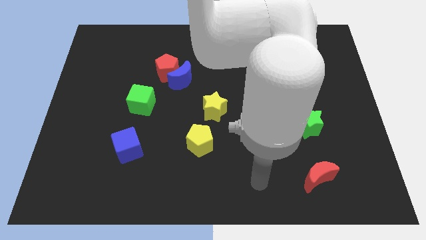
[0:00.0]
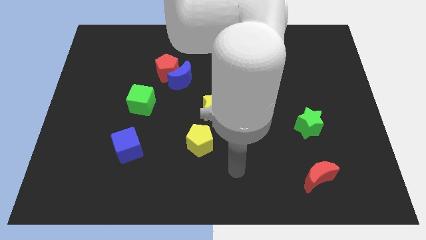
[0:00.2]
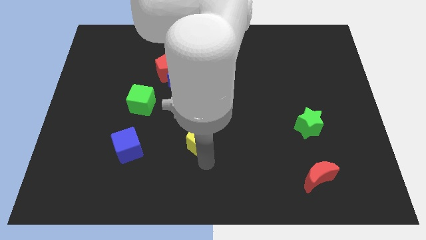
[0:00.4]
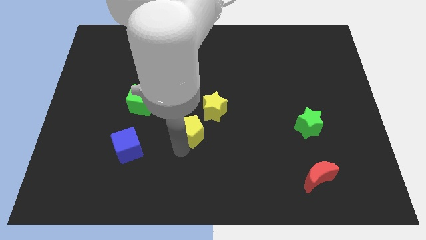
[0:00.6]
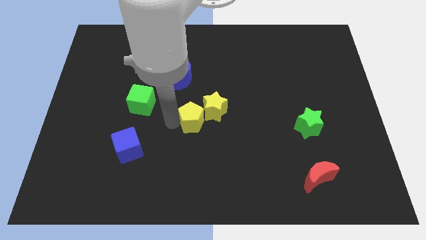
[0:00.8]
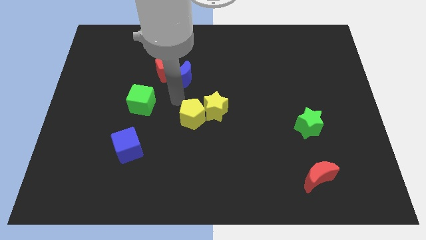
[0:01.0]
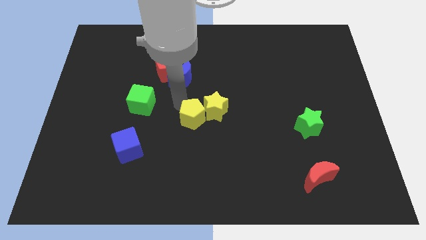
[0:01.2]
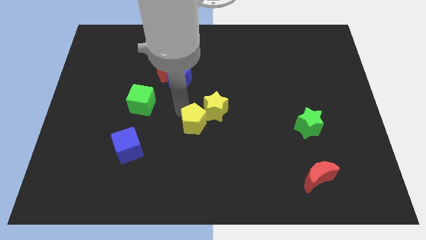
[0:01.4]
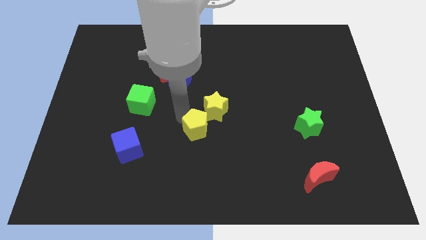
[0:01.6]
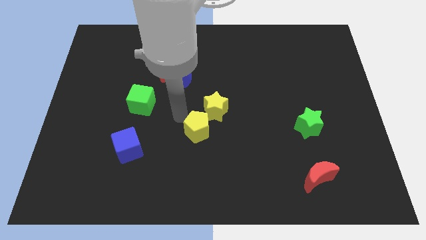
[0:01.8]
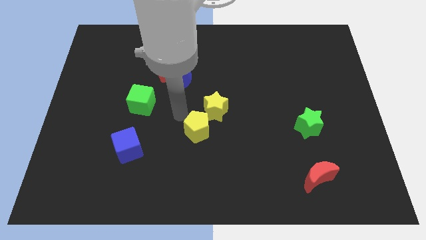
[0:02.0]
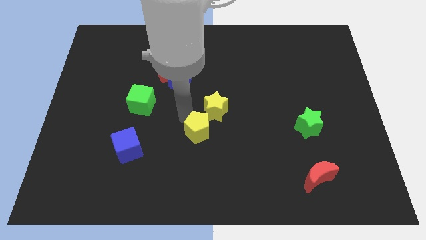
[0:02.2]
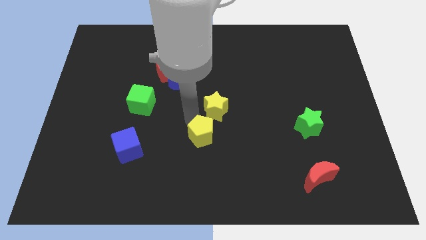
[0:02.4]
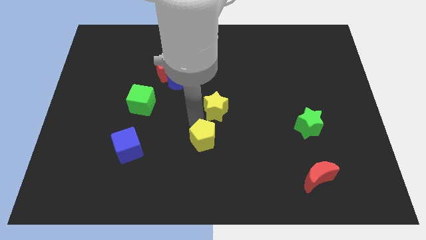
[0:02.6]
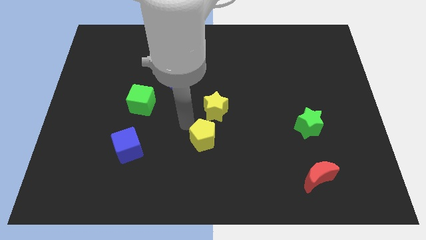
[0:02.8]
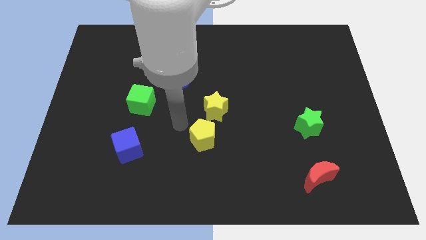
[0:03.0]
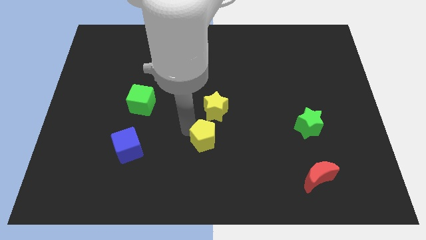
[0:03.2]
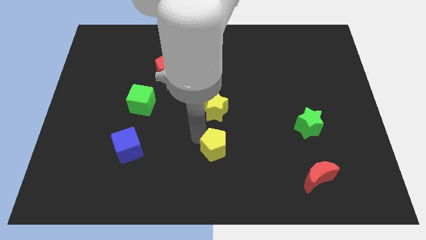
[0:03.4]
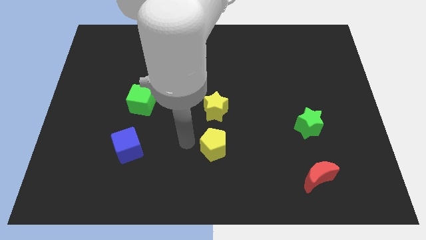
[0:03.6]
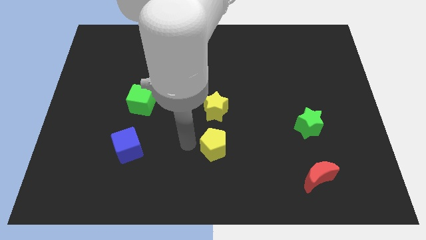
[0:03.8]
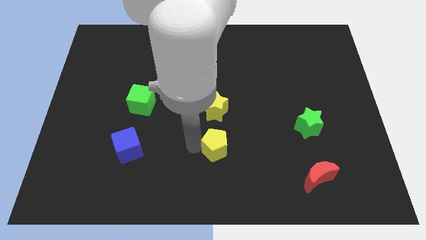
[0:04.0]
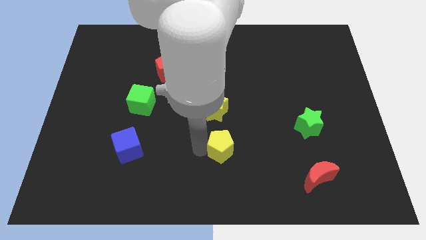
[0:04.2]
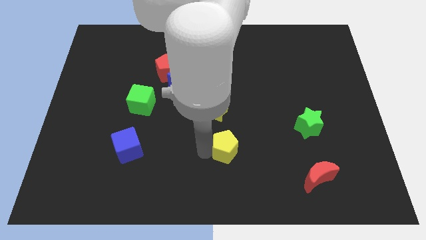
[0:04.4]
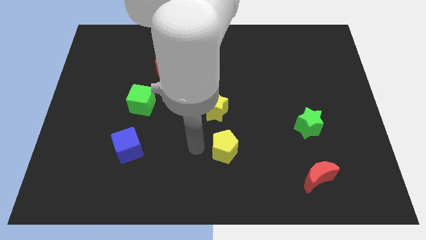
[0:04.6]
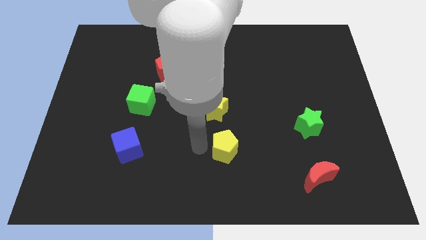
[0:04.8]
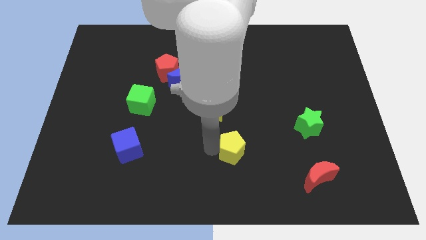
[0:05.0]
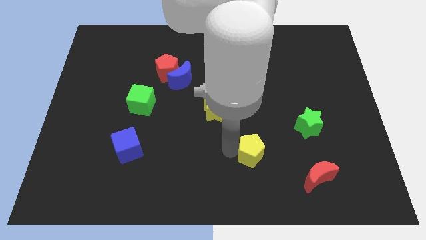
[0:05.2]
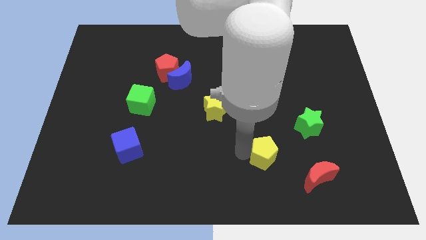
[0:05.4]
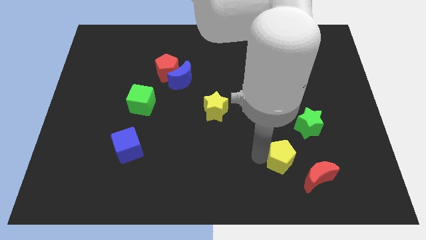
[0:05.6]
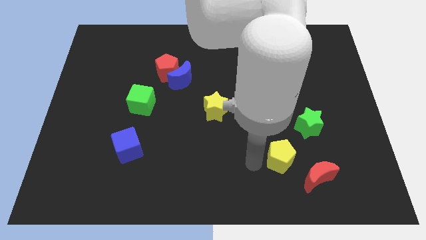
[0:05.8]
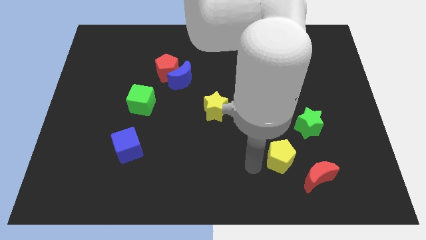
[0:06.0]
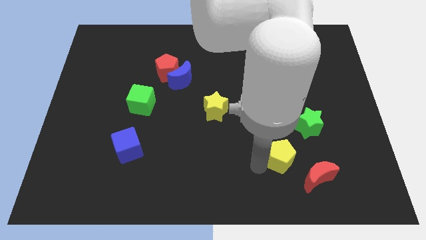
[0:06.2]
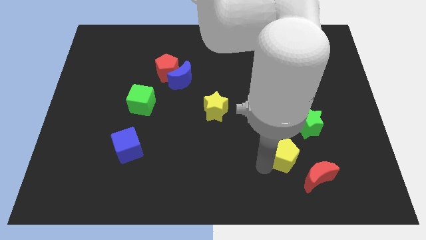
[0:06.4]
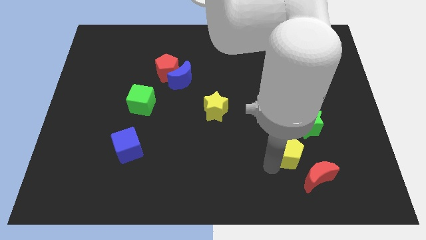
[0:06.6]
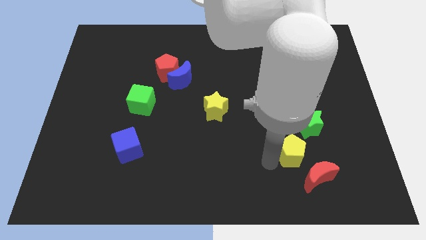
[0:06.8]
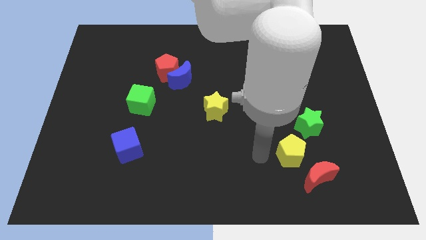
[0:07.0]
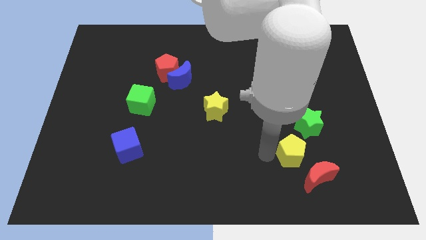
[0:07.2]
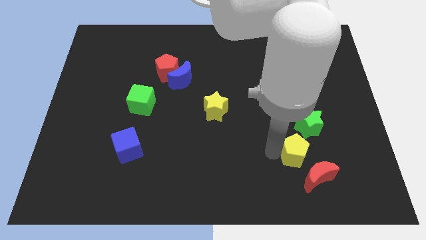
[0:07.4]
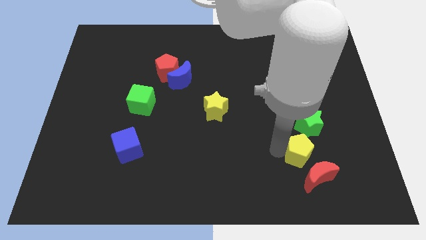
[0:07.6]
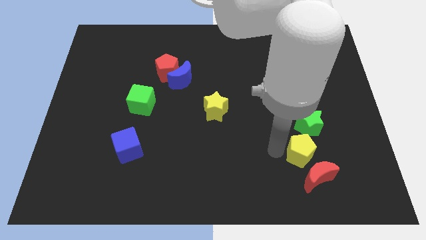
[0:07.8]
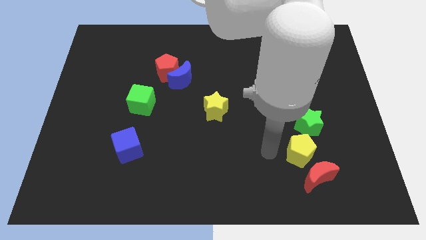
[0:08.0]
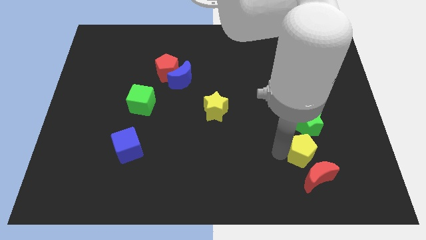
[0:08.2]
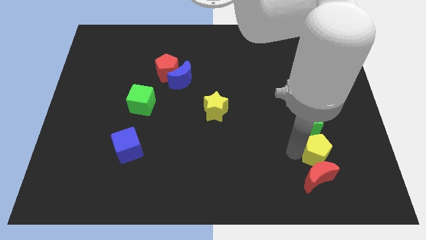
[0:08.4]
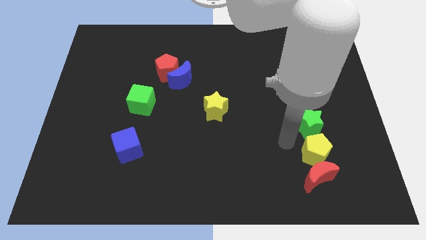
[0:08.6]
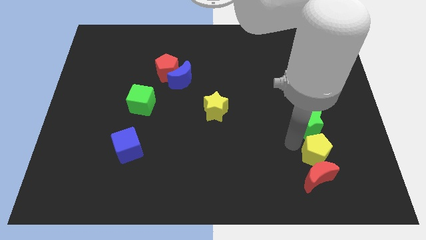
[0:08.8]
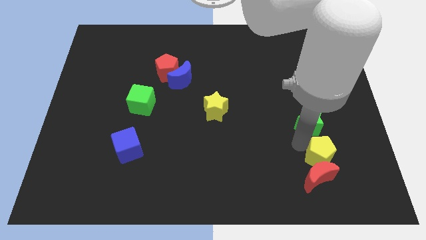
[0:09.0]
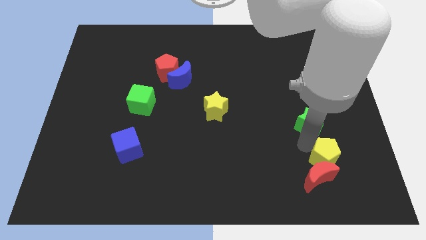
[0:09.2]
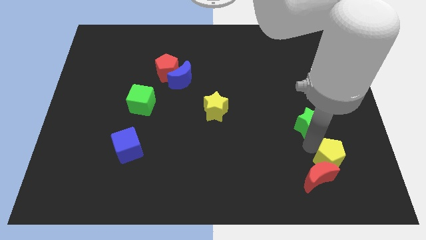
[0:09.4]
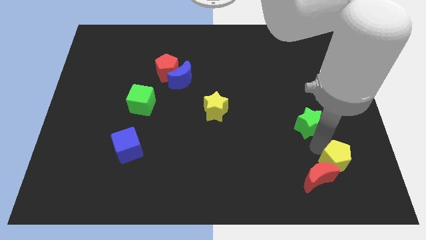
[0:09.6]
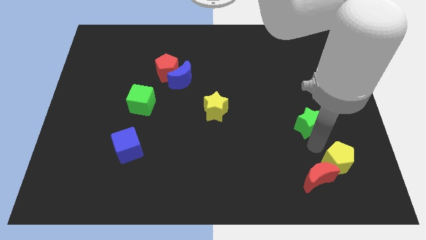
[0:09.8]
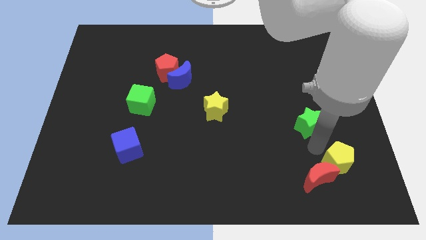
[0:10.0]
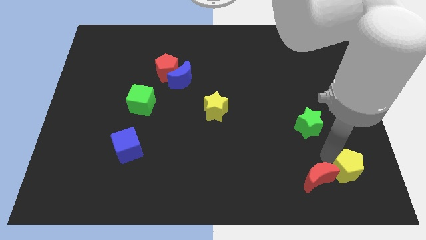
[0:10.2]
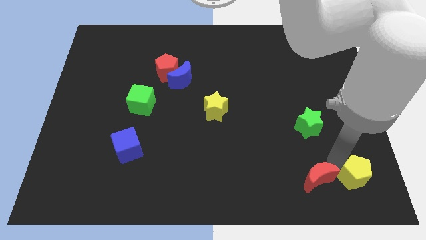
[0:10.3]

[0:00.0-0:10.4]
put the yellow pentagon to the bottom right

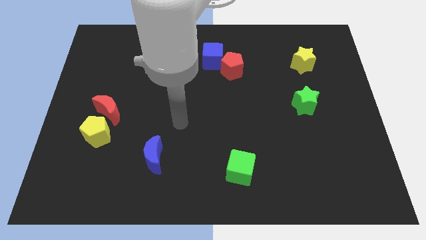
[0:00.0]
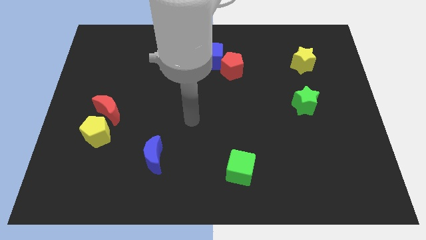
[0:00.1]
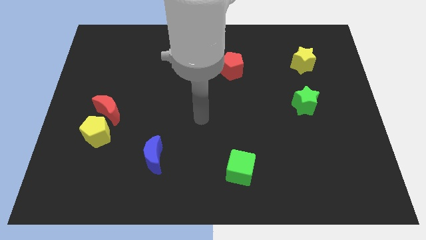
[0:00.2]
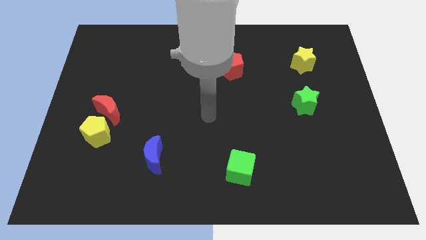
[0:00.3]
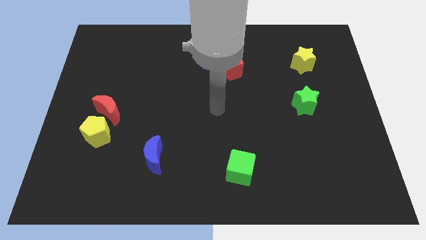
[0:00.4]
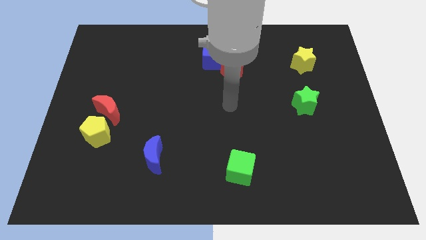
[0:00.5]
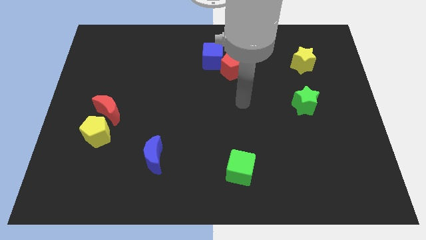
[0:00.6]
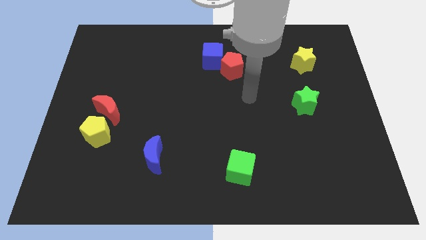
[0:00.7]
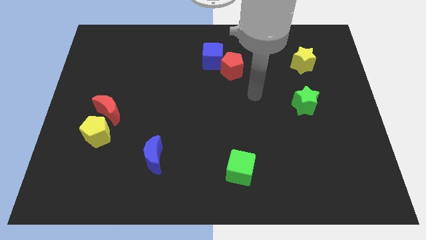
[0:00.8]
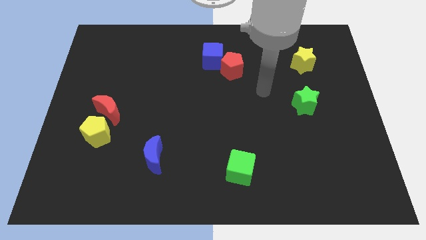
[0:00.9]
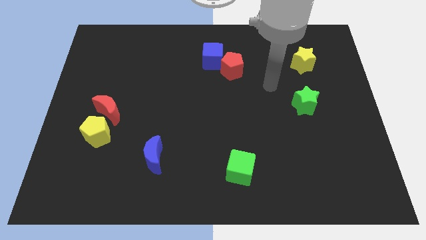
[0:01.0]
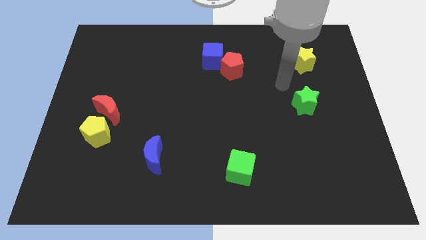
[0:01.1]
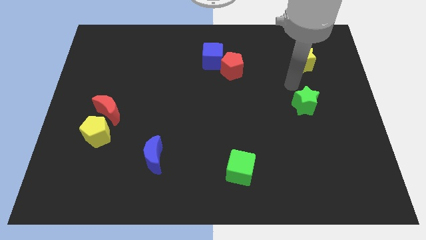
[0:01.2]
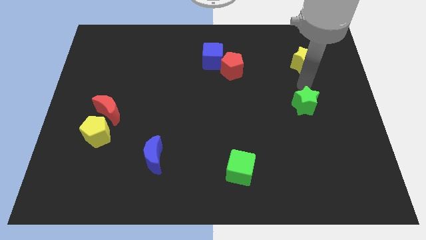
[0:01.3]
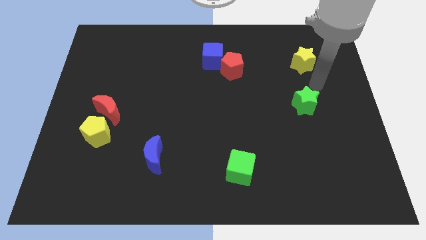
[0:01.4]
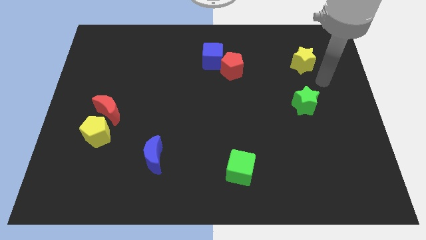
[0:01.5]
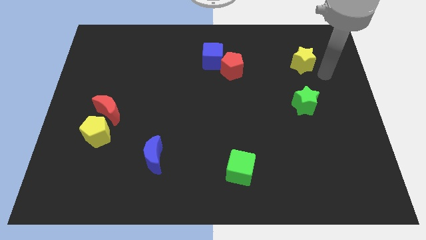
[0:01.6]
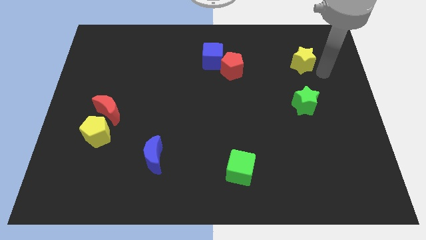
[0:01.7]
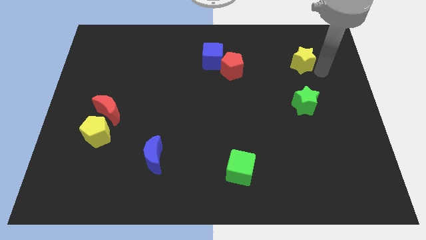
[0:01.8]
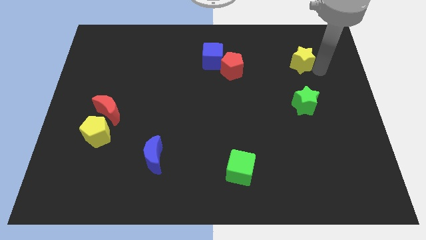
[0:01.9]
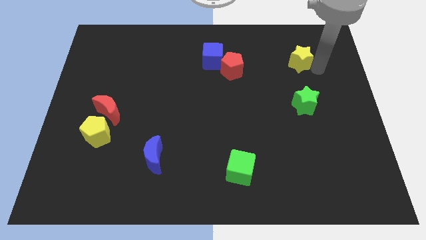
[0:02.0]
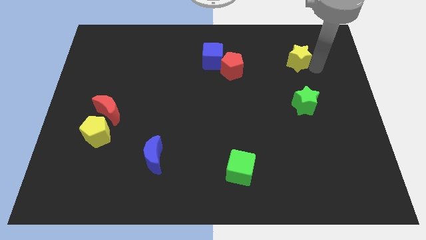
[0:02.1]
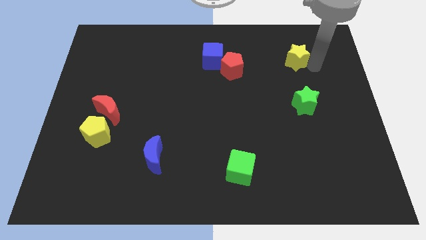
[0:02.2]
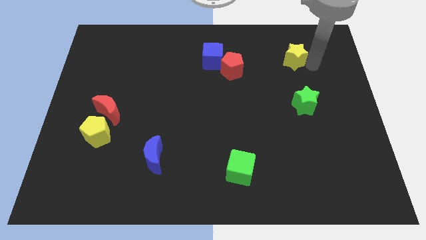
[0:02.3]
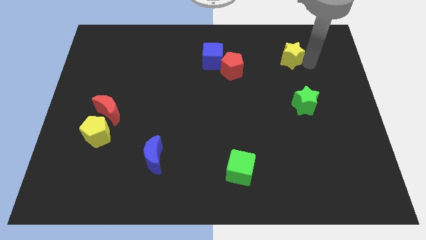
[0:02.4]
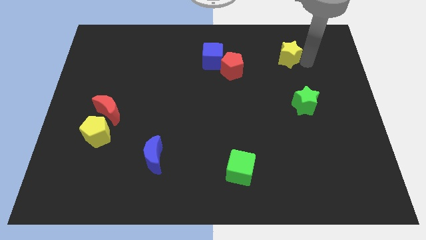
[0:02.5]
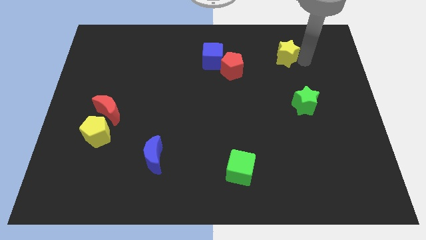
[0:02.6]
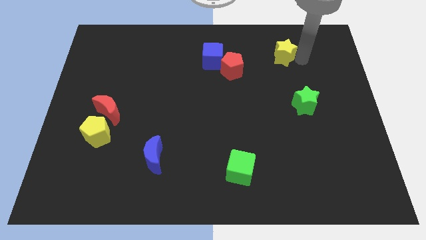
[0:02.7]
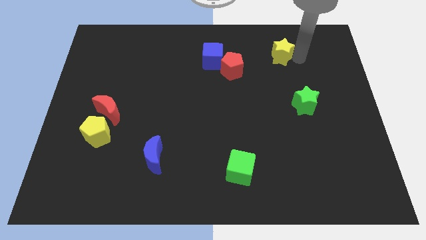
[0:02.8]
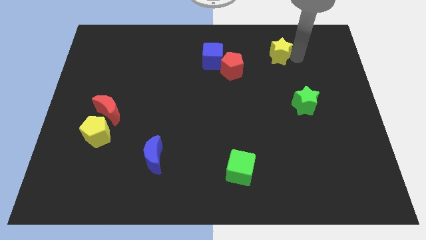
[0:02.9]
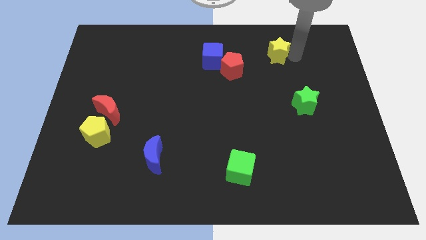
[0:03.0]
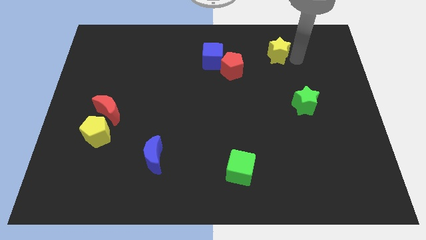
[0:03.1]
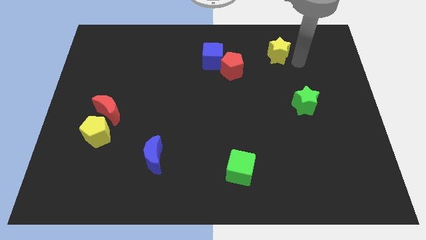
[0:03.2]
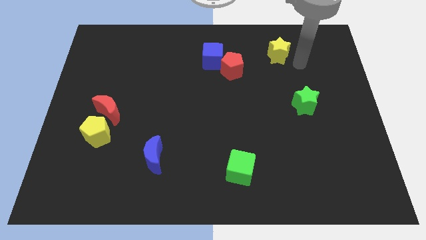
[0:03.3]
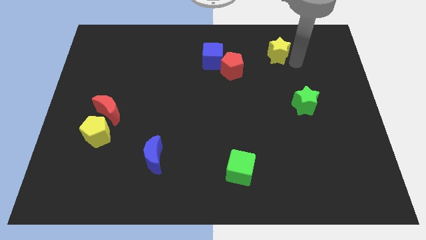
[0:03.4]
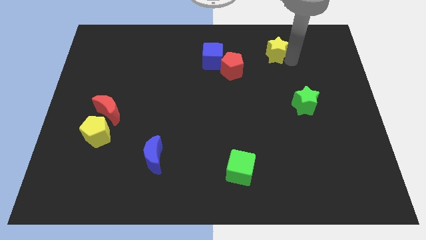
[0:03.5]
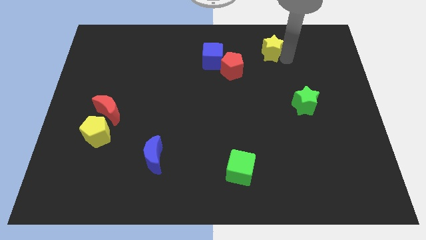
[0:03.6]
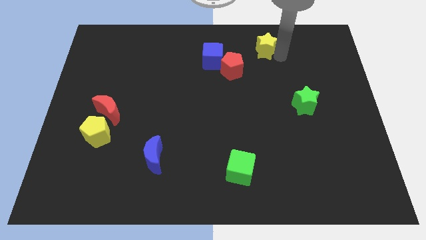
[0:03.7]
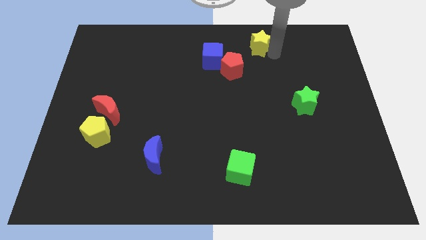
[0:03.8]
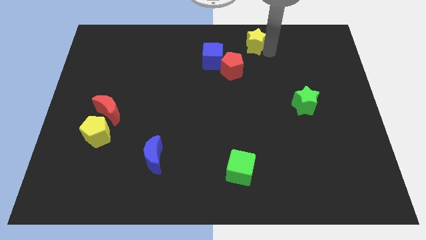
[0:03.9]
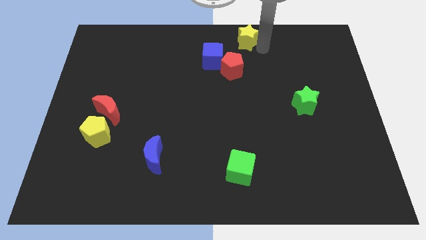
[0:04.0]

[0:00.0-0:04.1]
slide the yellow star to the top side
